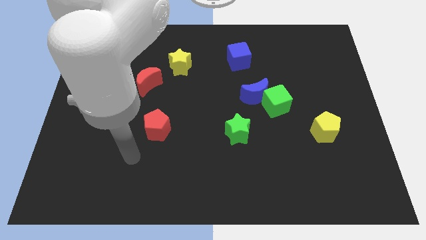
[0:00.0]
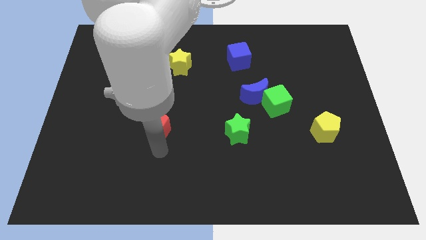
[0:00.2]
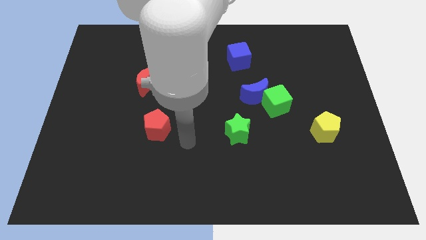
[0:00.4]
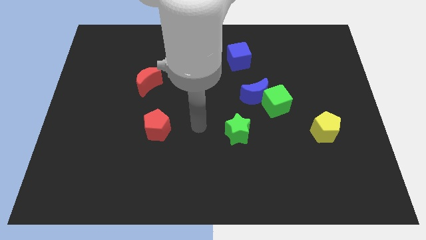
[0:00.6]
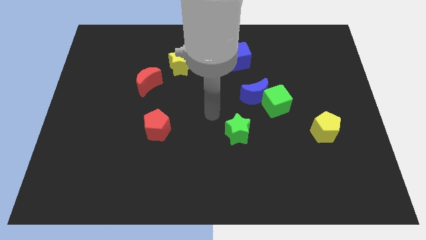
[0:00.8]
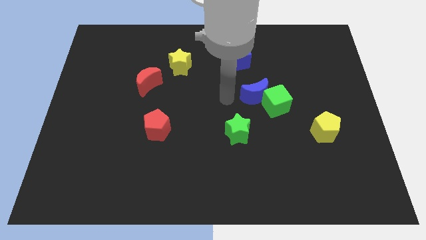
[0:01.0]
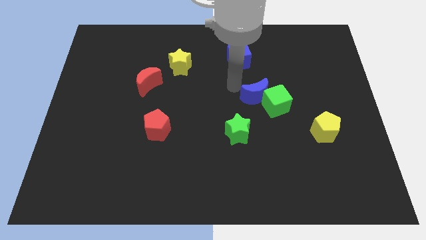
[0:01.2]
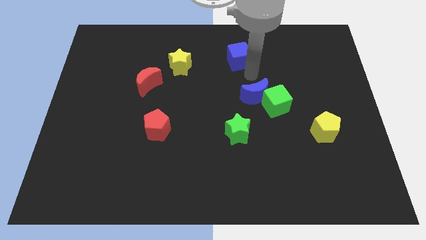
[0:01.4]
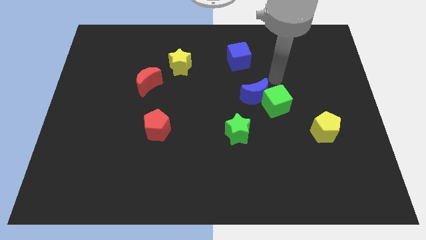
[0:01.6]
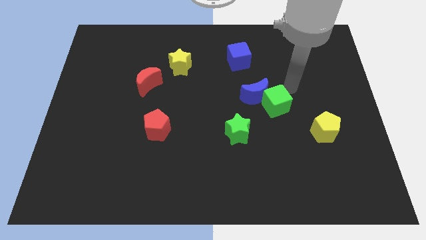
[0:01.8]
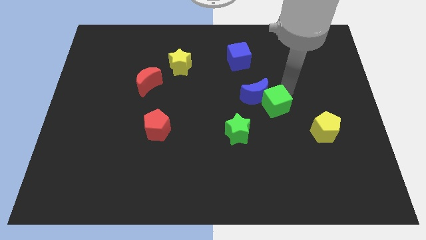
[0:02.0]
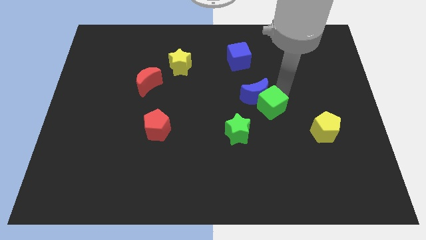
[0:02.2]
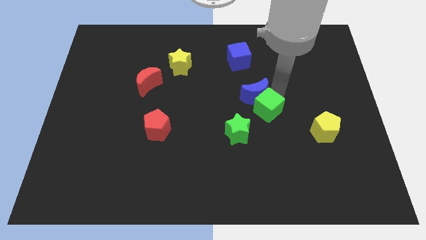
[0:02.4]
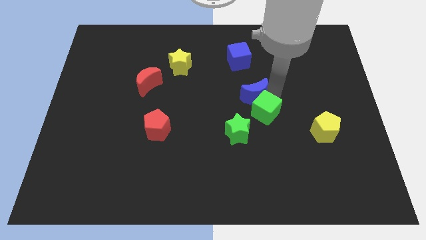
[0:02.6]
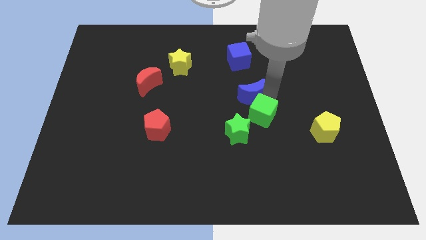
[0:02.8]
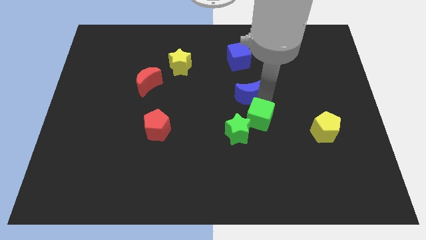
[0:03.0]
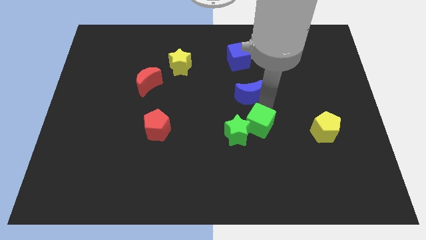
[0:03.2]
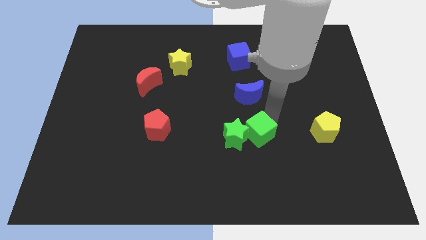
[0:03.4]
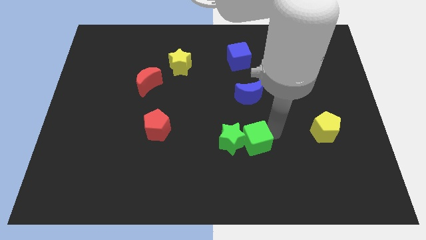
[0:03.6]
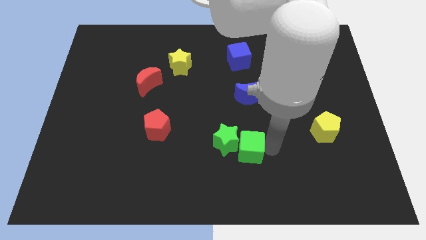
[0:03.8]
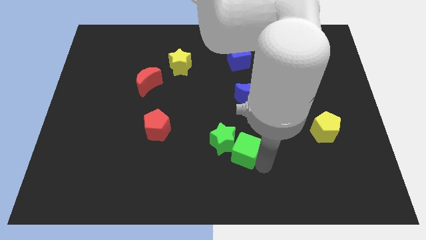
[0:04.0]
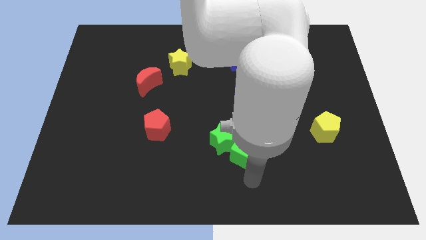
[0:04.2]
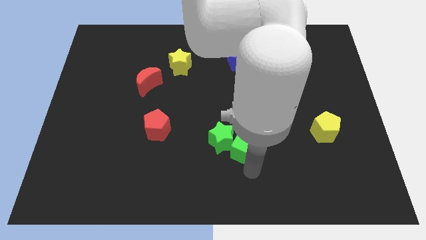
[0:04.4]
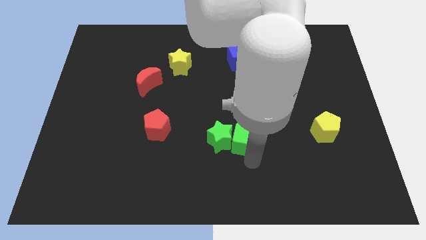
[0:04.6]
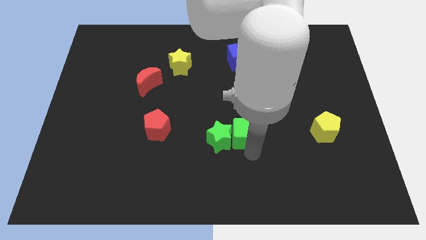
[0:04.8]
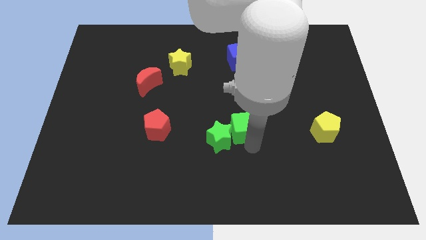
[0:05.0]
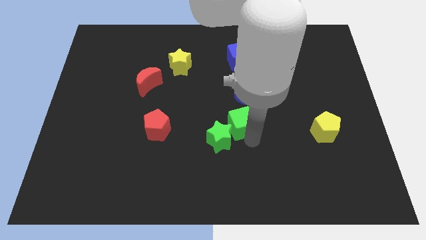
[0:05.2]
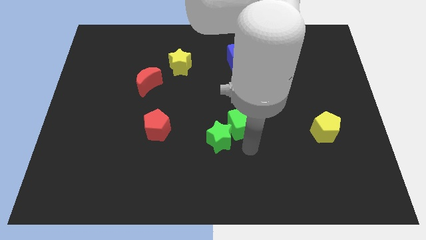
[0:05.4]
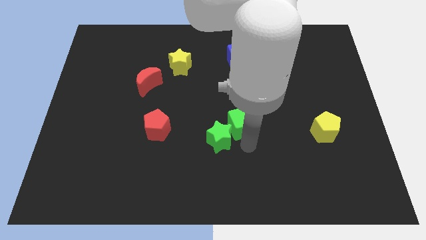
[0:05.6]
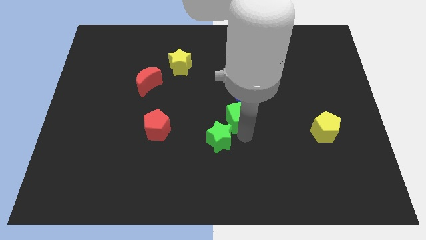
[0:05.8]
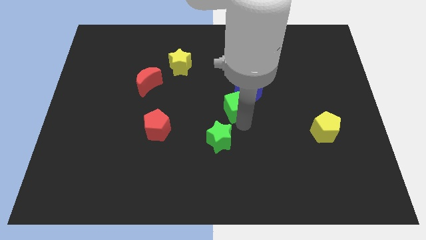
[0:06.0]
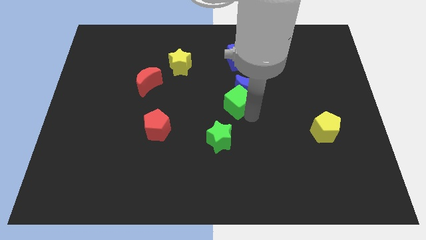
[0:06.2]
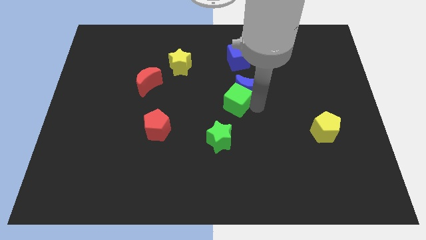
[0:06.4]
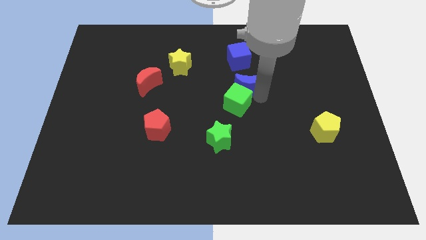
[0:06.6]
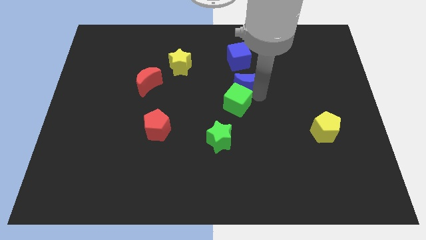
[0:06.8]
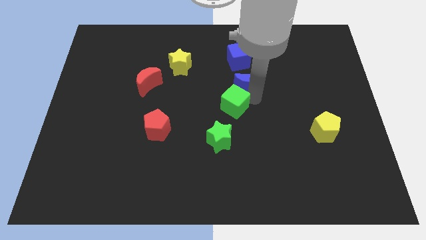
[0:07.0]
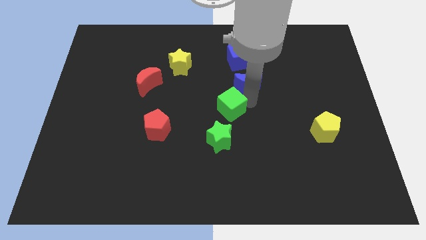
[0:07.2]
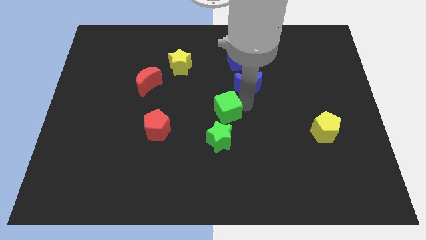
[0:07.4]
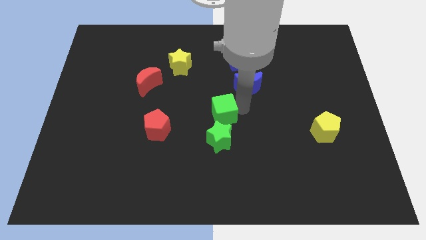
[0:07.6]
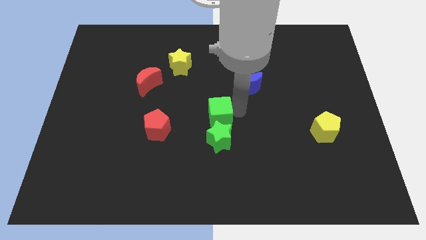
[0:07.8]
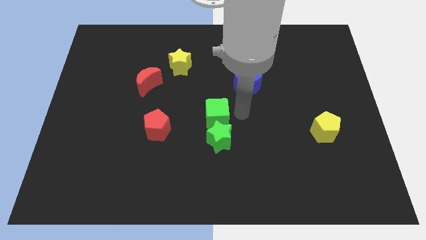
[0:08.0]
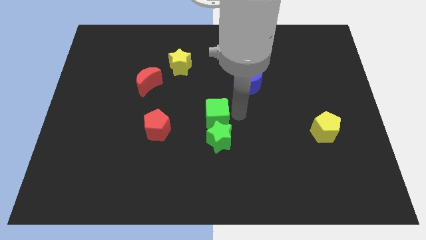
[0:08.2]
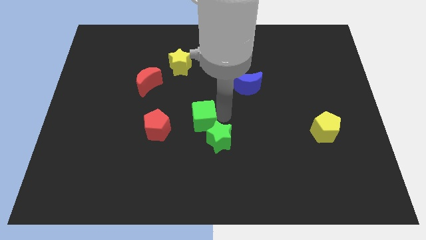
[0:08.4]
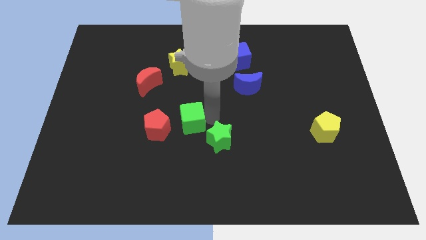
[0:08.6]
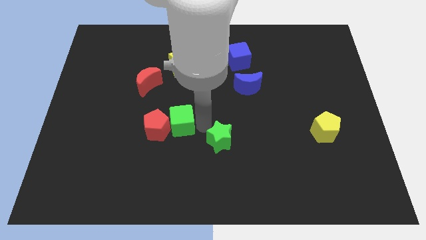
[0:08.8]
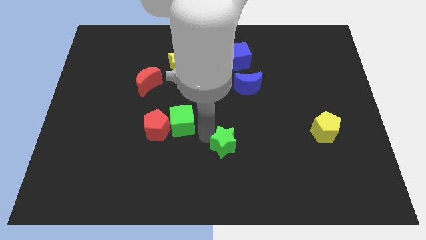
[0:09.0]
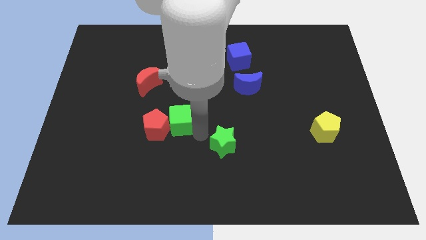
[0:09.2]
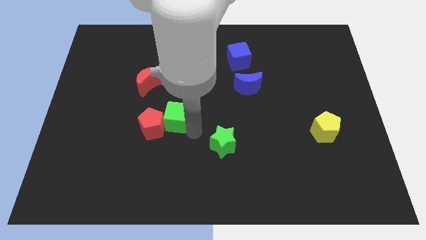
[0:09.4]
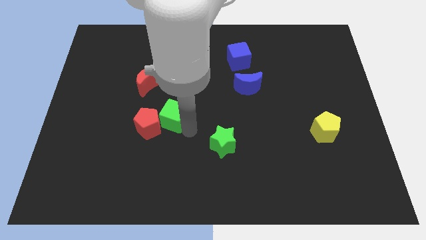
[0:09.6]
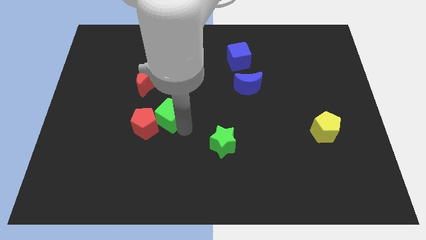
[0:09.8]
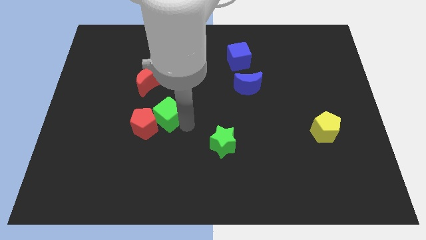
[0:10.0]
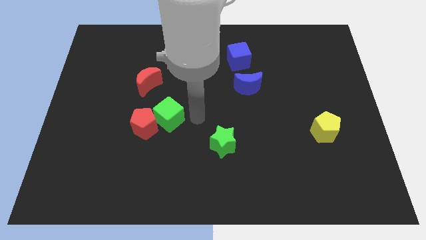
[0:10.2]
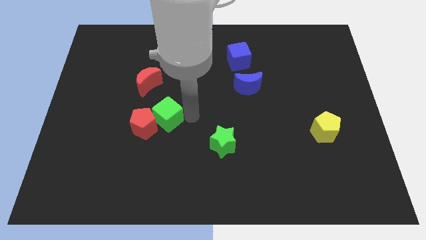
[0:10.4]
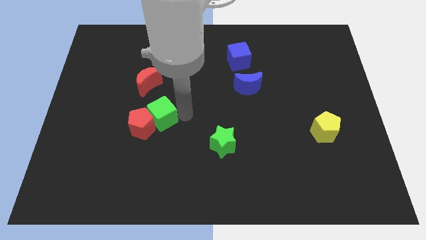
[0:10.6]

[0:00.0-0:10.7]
push the green cube below the red moon
